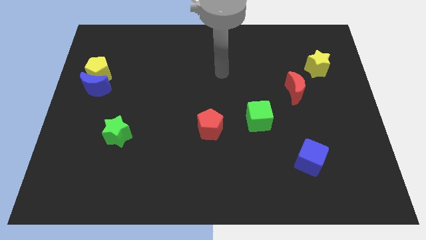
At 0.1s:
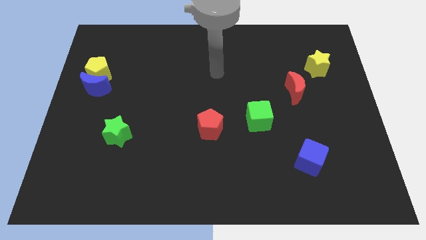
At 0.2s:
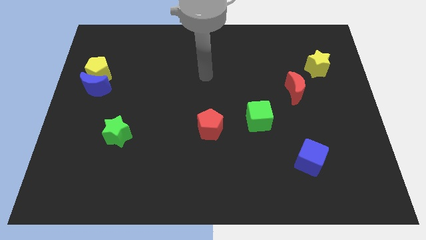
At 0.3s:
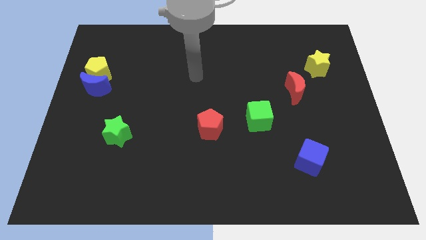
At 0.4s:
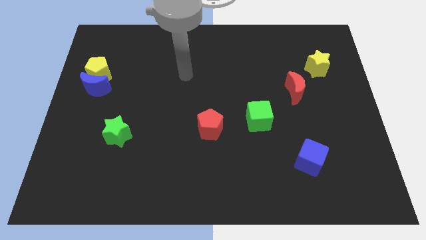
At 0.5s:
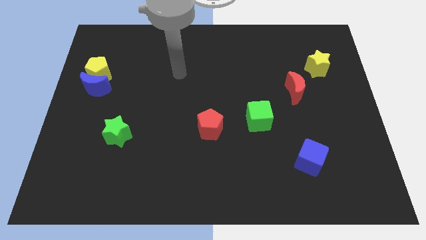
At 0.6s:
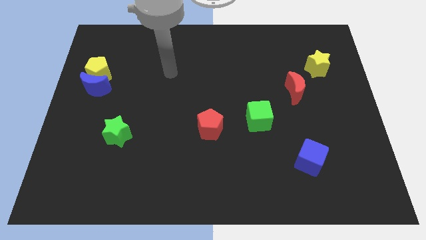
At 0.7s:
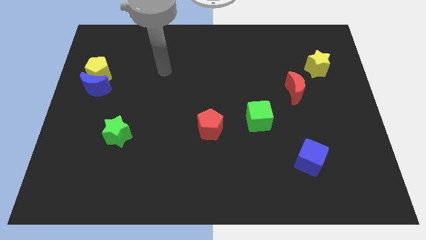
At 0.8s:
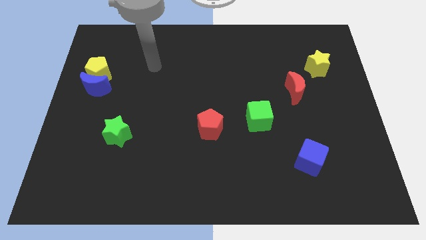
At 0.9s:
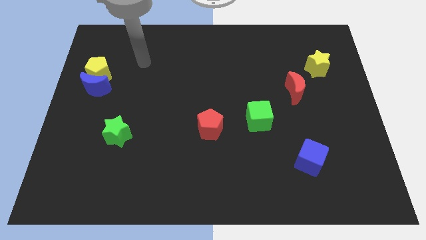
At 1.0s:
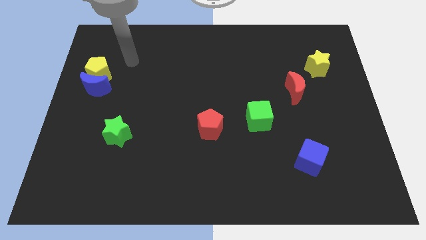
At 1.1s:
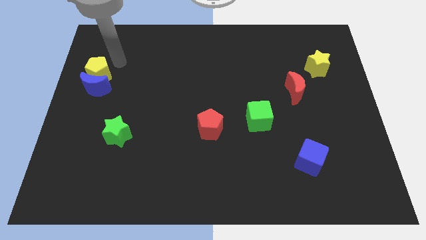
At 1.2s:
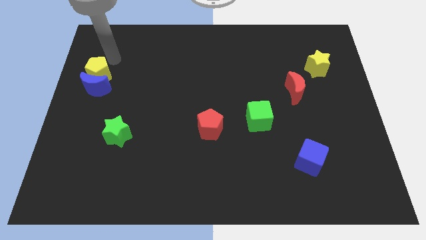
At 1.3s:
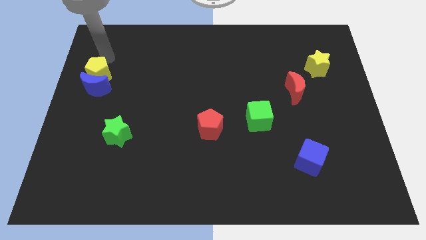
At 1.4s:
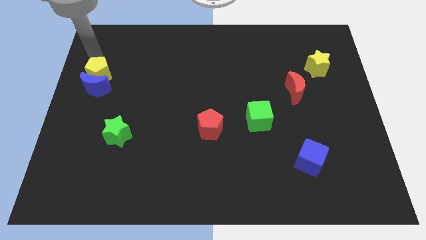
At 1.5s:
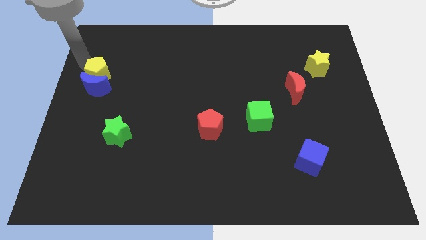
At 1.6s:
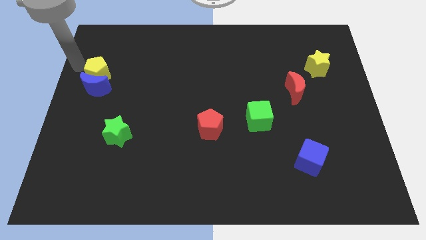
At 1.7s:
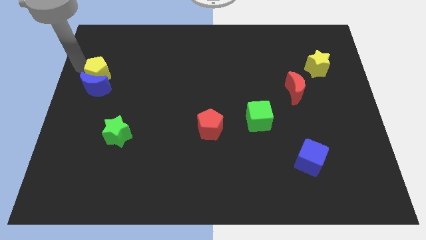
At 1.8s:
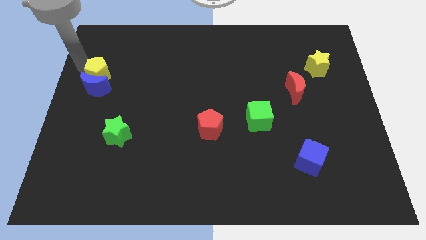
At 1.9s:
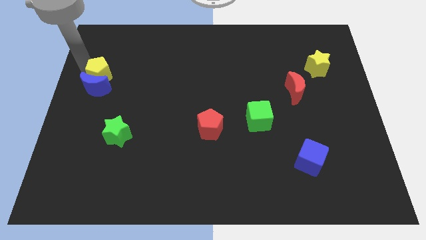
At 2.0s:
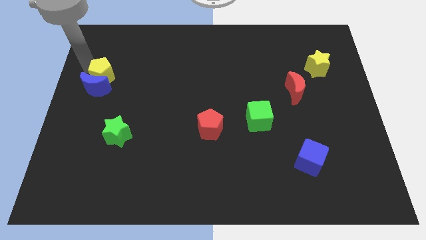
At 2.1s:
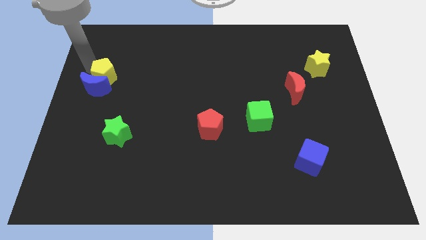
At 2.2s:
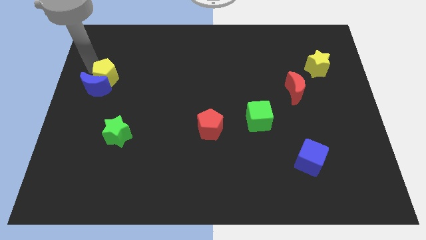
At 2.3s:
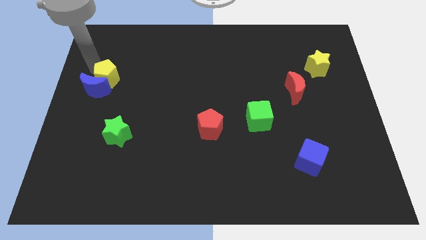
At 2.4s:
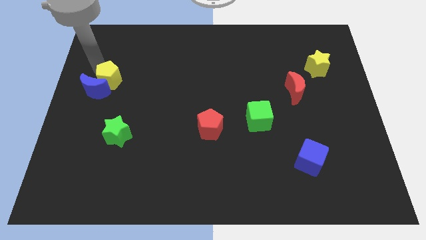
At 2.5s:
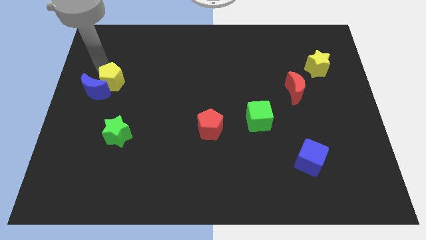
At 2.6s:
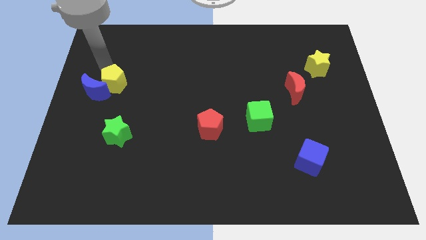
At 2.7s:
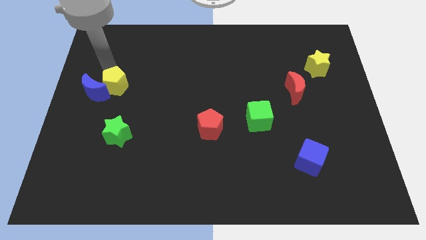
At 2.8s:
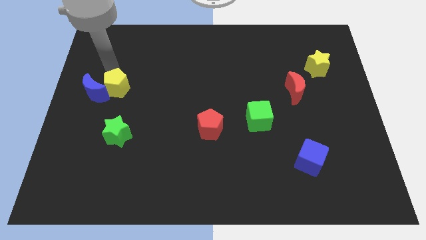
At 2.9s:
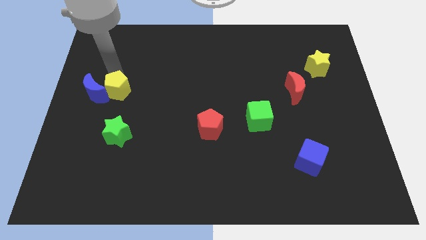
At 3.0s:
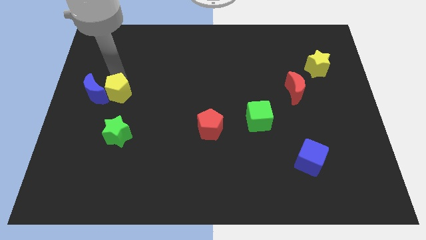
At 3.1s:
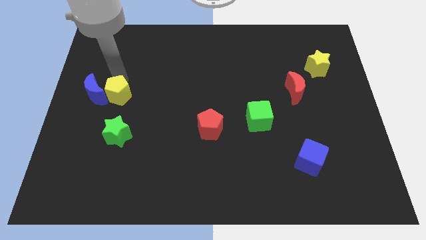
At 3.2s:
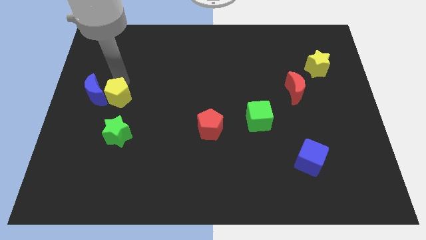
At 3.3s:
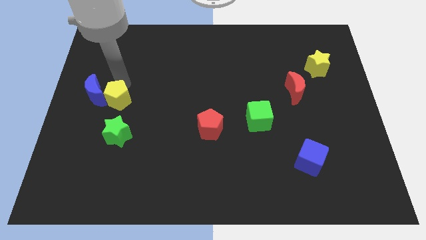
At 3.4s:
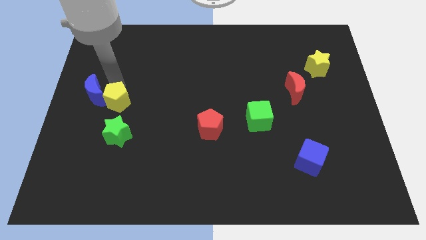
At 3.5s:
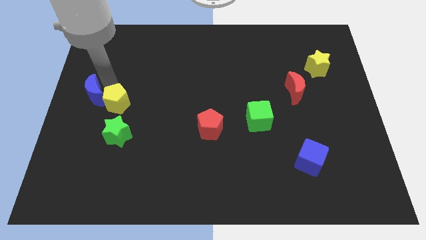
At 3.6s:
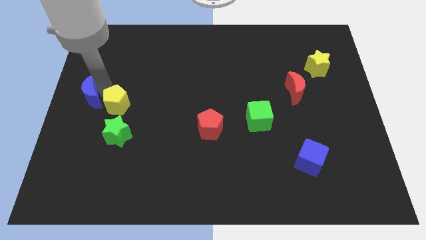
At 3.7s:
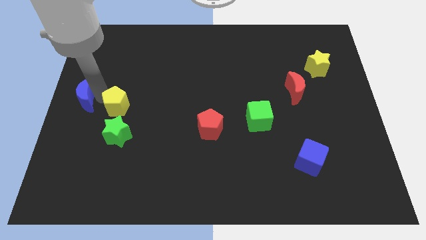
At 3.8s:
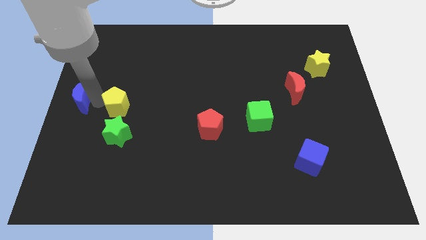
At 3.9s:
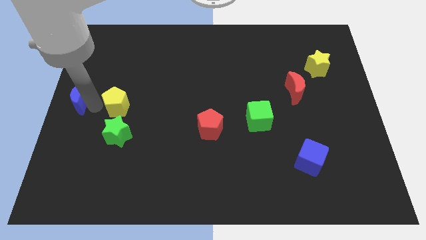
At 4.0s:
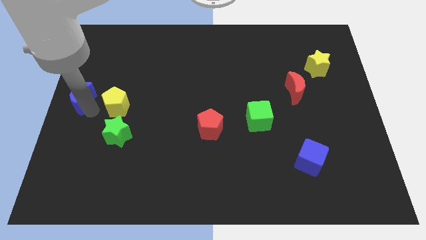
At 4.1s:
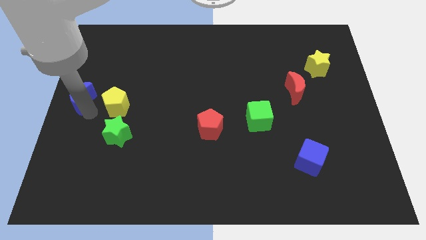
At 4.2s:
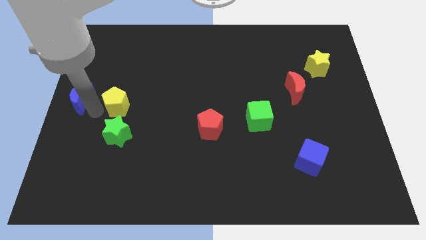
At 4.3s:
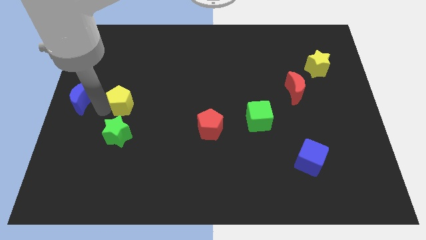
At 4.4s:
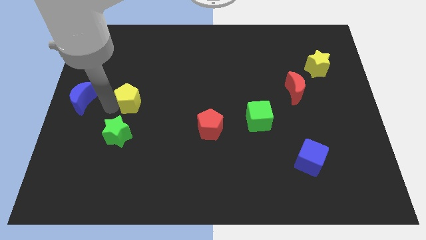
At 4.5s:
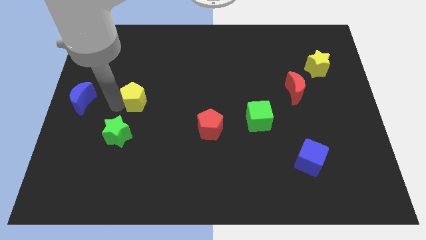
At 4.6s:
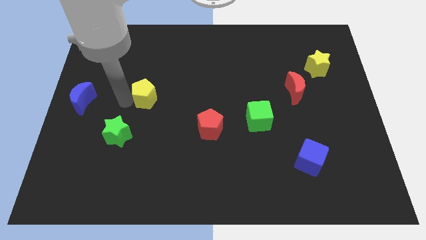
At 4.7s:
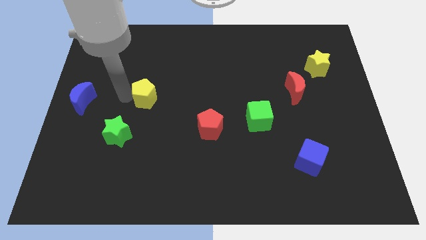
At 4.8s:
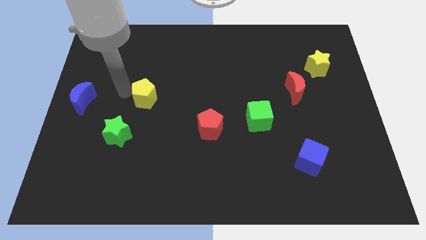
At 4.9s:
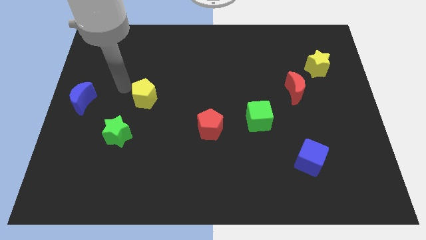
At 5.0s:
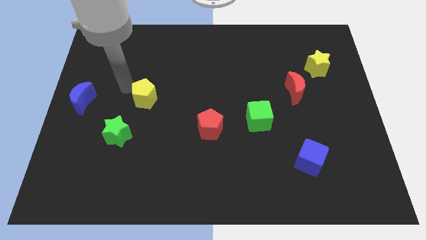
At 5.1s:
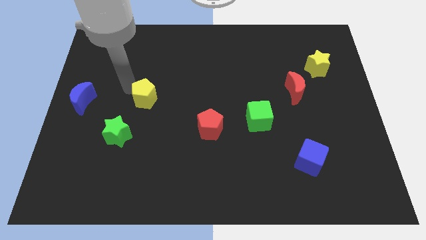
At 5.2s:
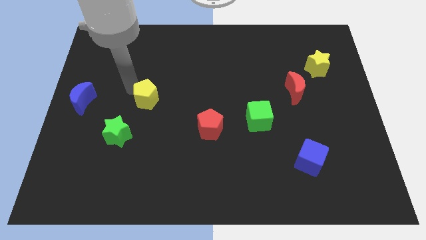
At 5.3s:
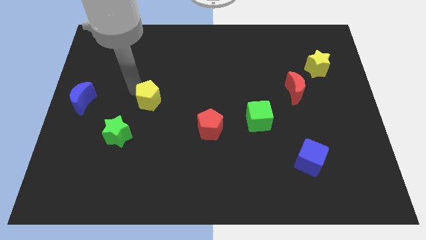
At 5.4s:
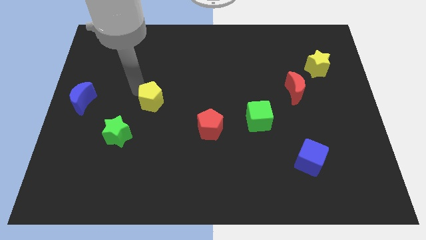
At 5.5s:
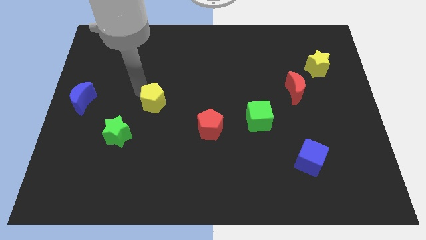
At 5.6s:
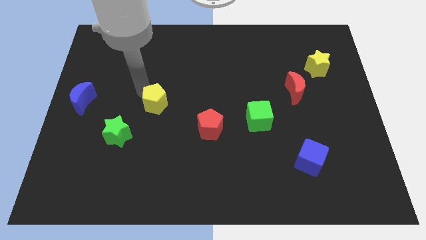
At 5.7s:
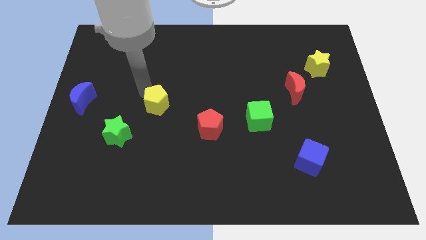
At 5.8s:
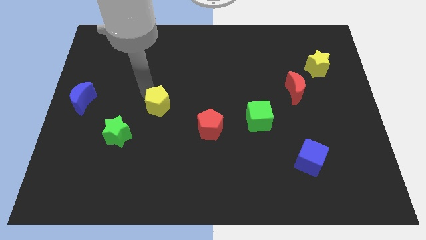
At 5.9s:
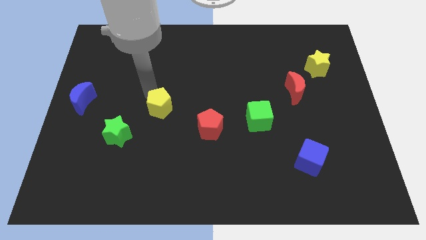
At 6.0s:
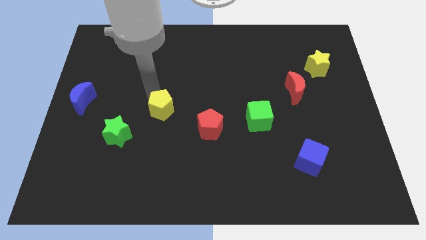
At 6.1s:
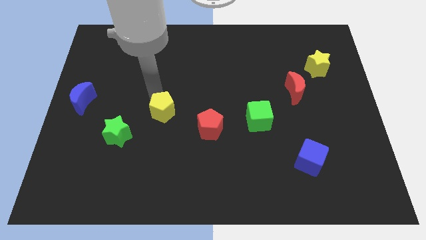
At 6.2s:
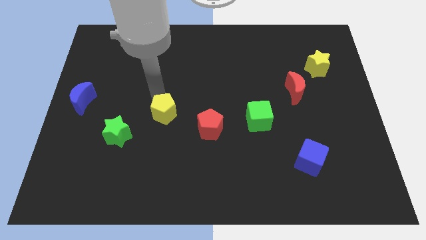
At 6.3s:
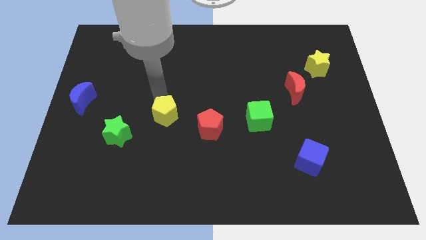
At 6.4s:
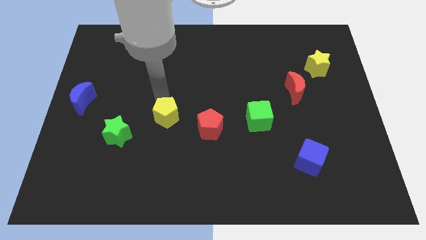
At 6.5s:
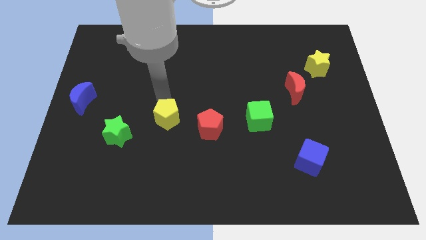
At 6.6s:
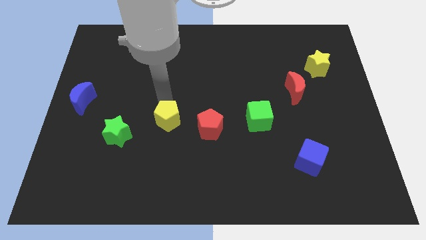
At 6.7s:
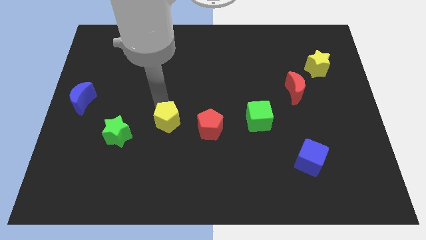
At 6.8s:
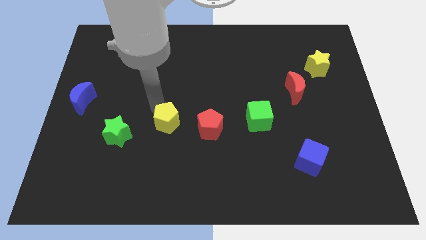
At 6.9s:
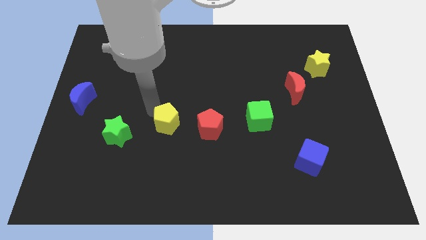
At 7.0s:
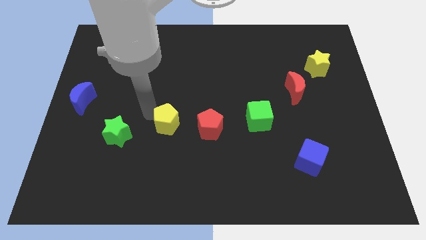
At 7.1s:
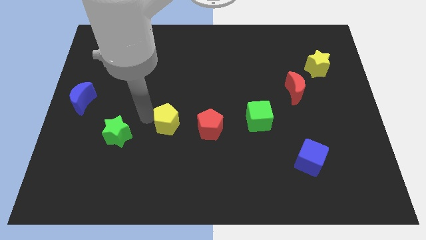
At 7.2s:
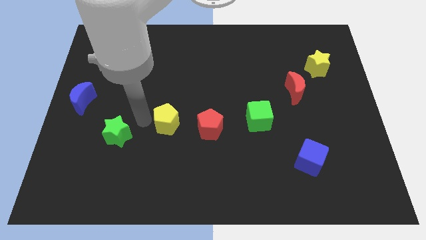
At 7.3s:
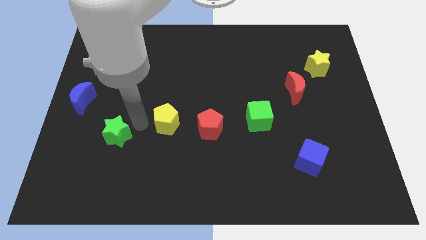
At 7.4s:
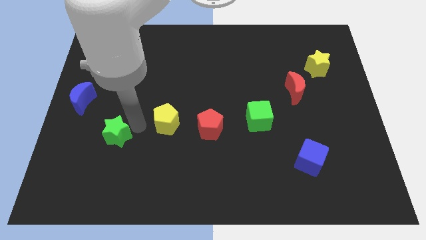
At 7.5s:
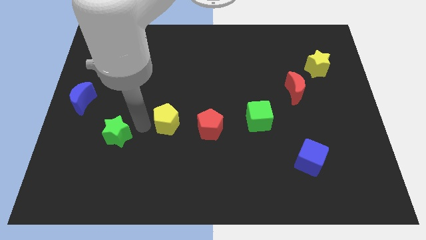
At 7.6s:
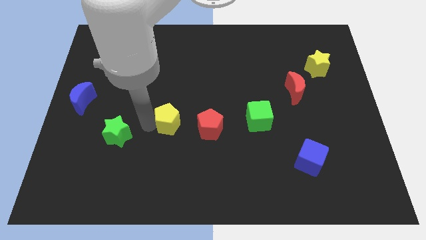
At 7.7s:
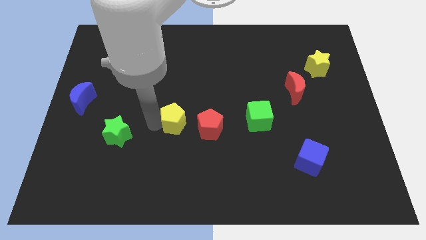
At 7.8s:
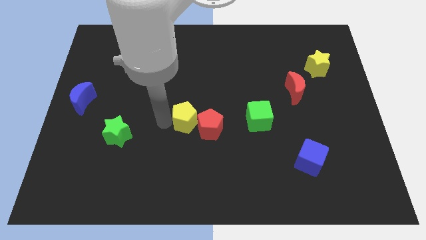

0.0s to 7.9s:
push the yellow pentagon next to the red pentagon
